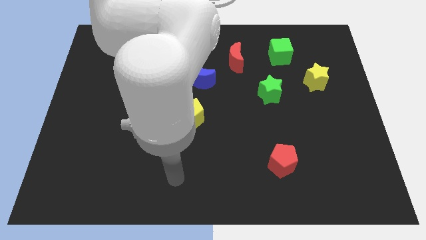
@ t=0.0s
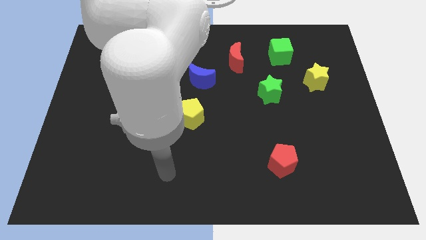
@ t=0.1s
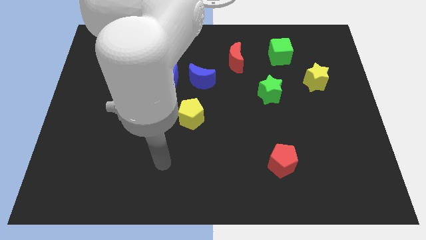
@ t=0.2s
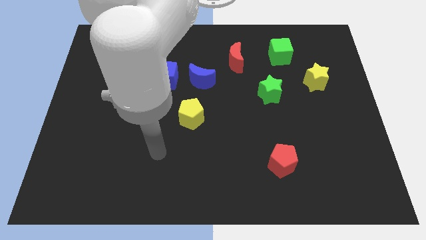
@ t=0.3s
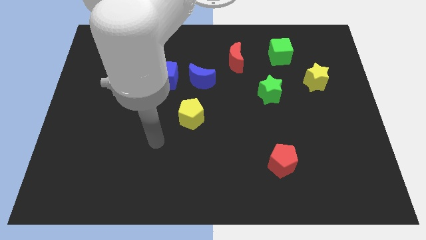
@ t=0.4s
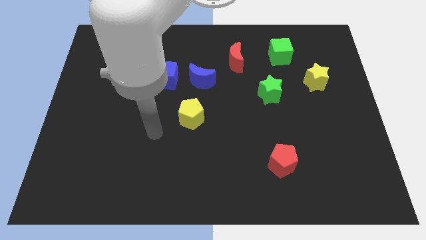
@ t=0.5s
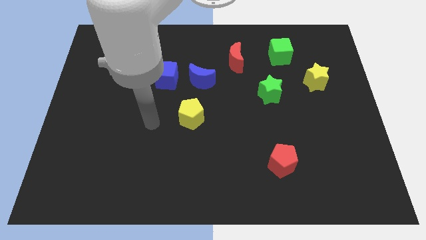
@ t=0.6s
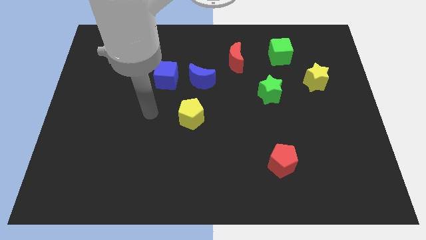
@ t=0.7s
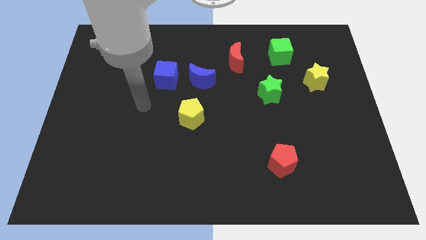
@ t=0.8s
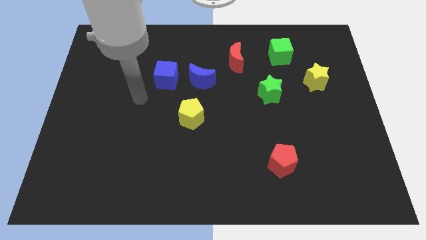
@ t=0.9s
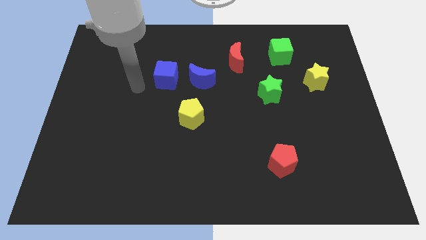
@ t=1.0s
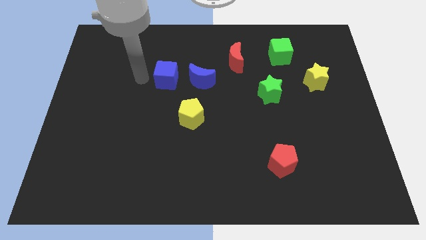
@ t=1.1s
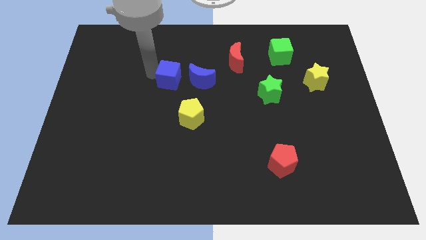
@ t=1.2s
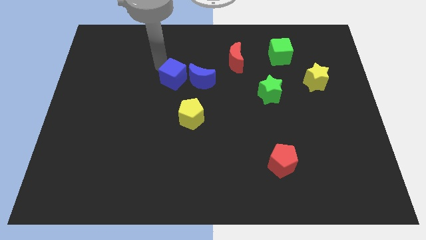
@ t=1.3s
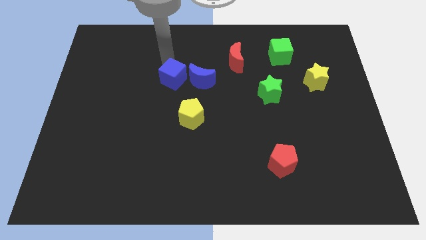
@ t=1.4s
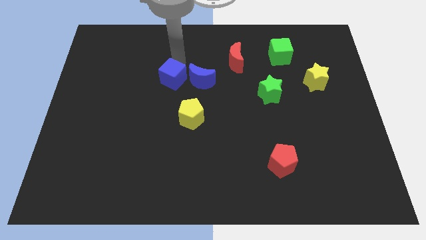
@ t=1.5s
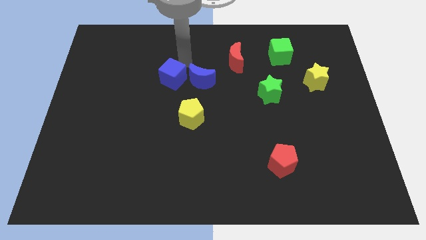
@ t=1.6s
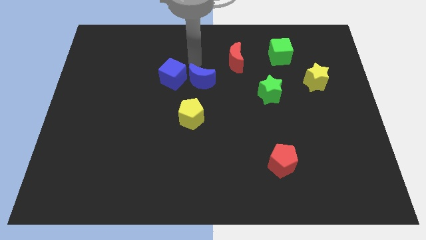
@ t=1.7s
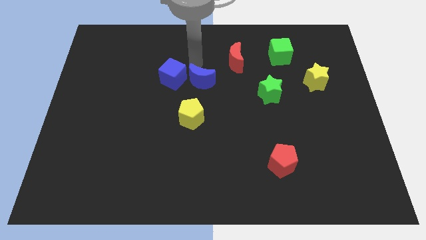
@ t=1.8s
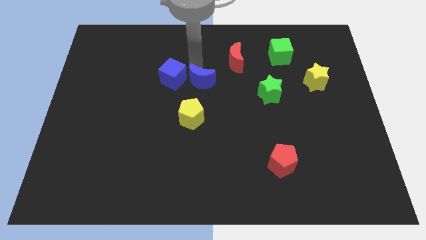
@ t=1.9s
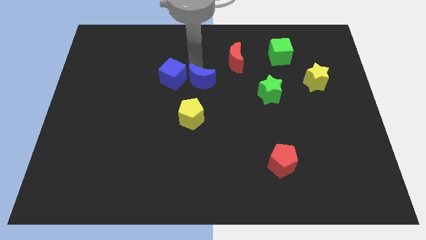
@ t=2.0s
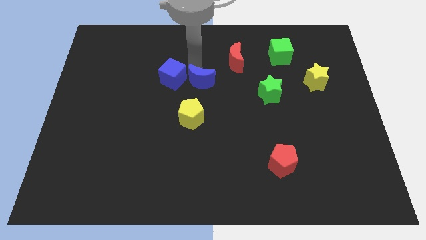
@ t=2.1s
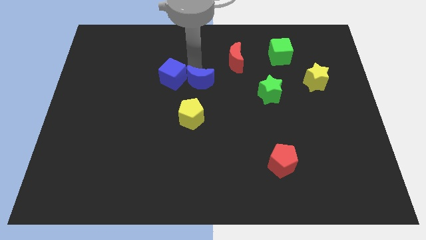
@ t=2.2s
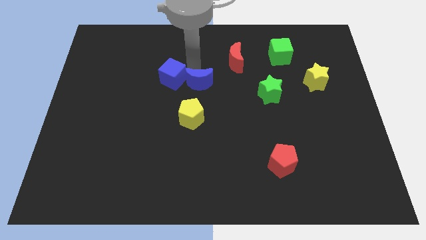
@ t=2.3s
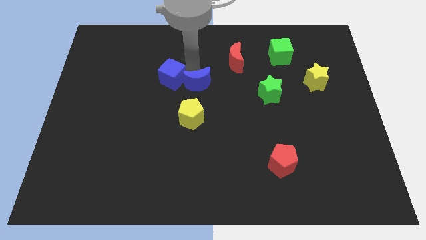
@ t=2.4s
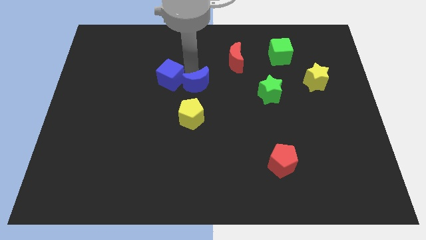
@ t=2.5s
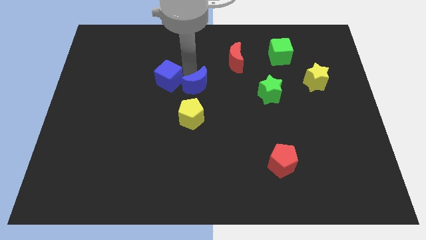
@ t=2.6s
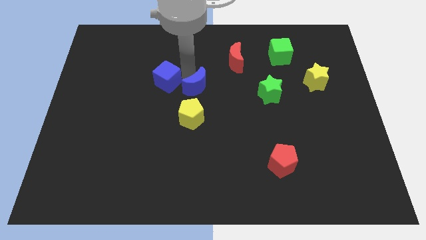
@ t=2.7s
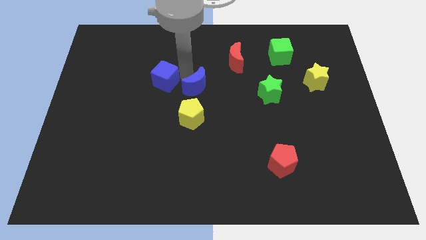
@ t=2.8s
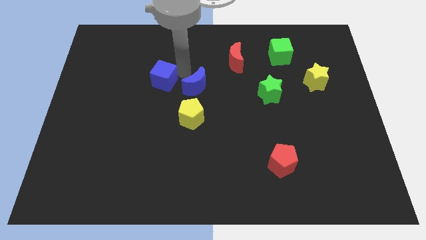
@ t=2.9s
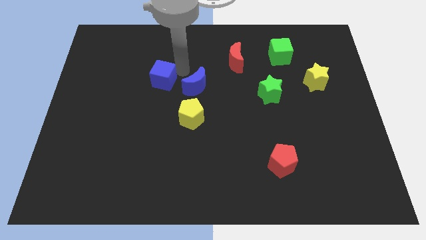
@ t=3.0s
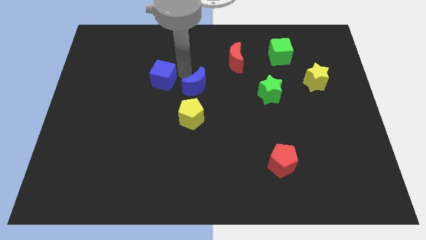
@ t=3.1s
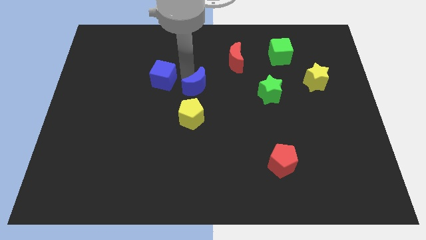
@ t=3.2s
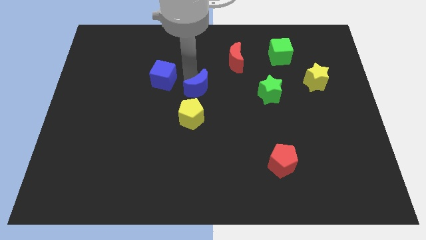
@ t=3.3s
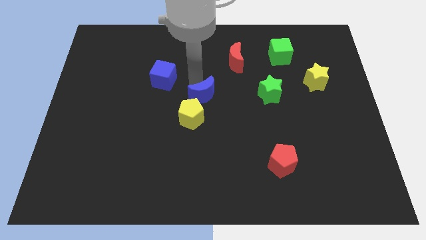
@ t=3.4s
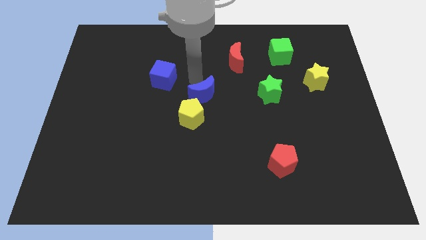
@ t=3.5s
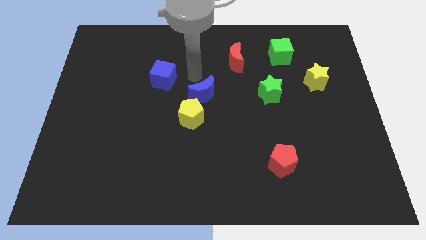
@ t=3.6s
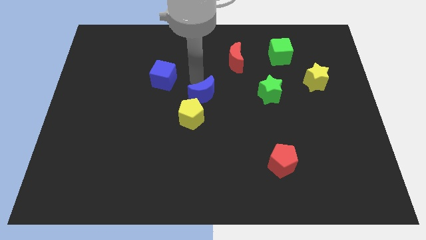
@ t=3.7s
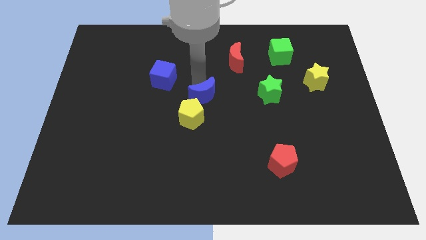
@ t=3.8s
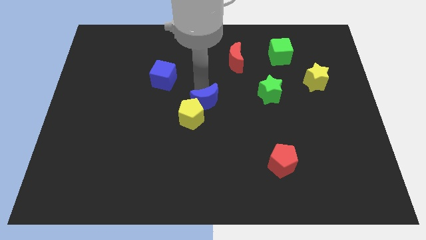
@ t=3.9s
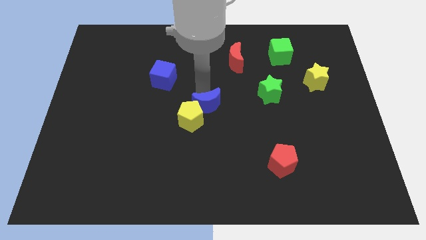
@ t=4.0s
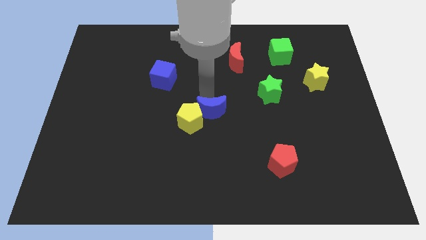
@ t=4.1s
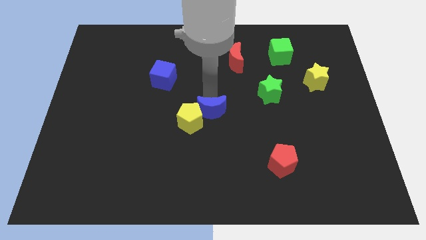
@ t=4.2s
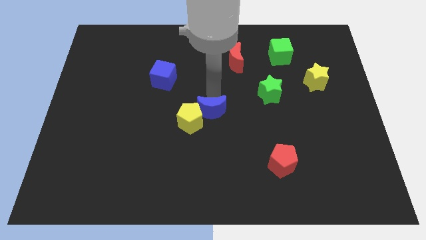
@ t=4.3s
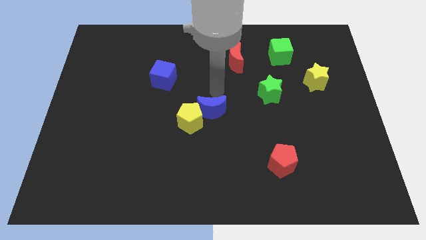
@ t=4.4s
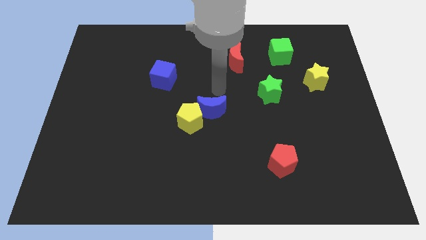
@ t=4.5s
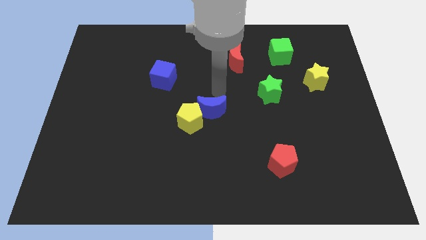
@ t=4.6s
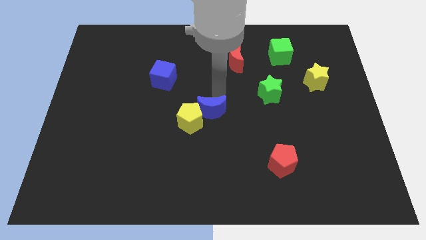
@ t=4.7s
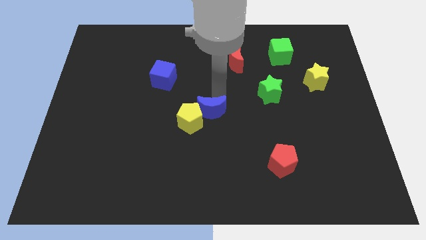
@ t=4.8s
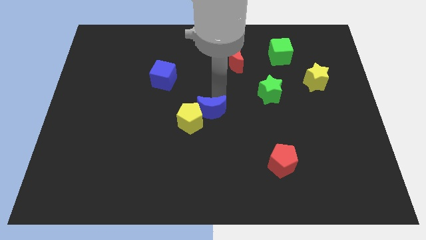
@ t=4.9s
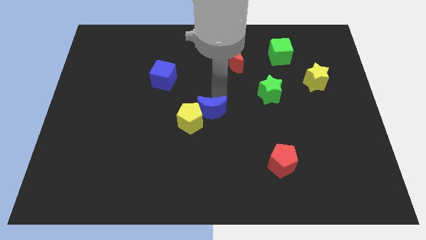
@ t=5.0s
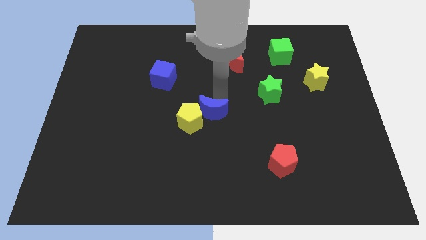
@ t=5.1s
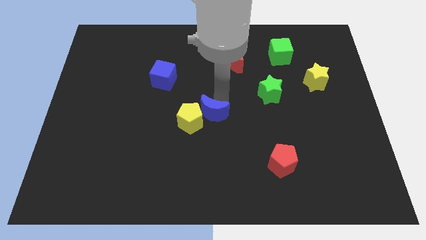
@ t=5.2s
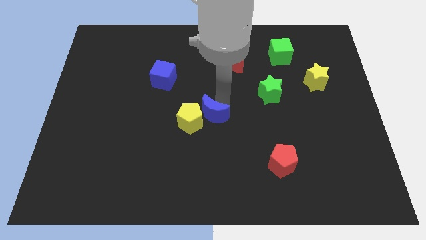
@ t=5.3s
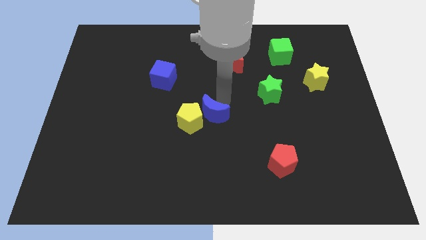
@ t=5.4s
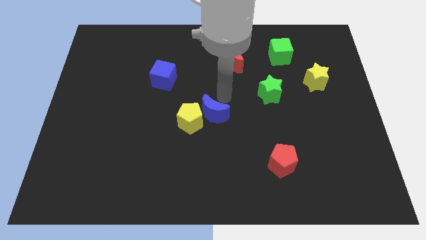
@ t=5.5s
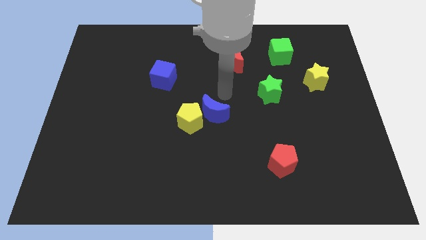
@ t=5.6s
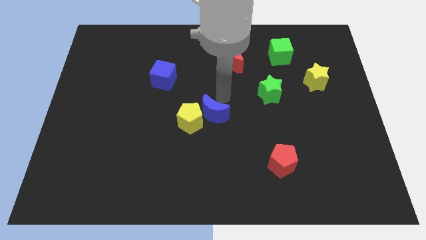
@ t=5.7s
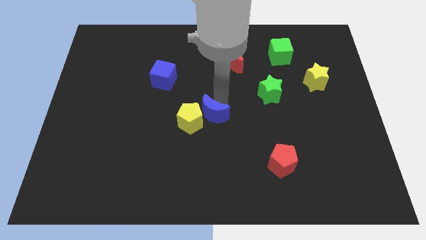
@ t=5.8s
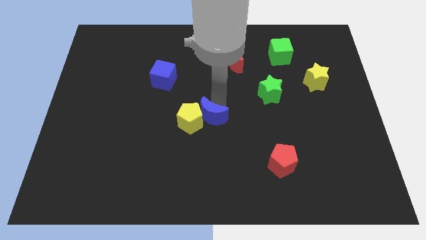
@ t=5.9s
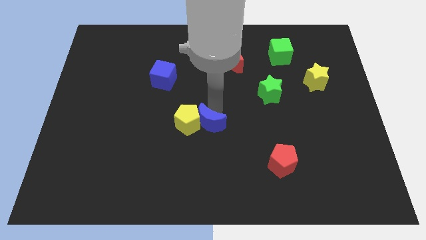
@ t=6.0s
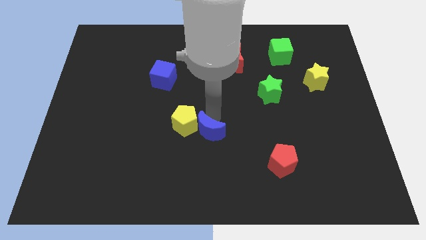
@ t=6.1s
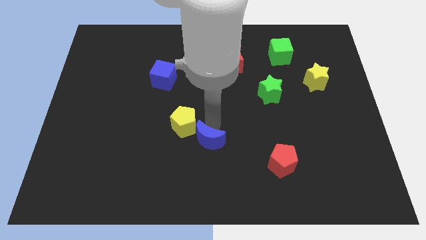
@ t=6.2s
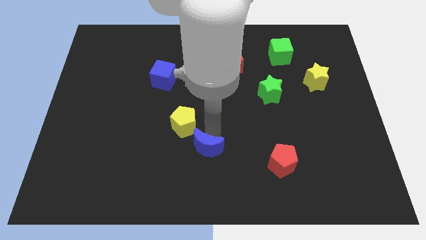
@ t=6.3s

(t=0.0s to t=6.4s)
move the blue moon to the bottom of the yellow pentagon

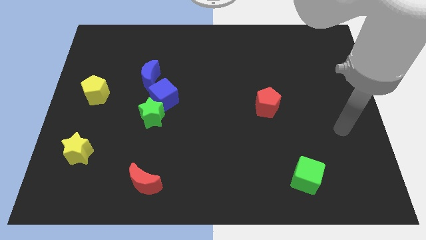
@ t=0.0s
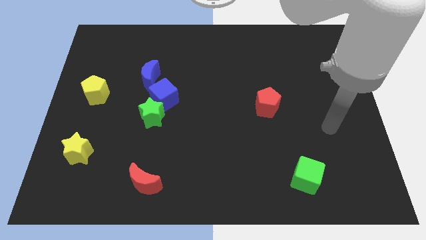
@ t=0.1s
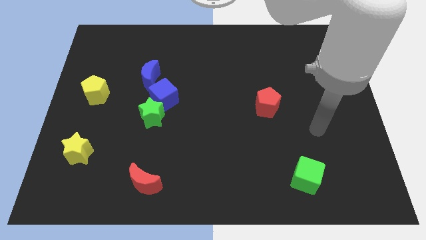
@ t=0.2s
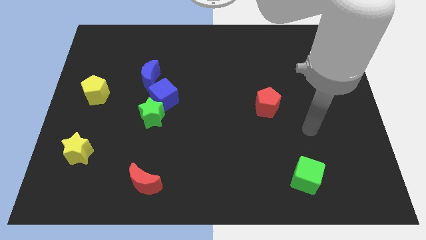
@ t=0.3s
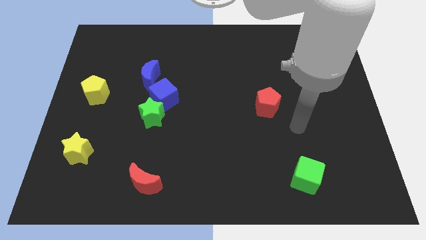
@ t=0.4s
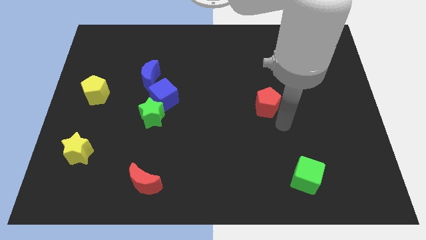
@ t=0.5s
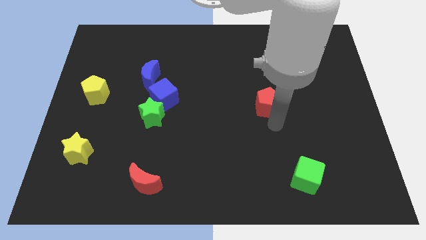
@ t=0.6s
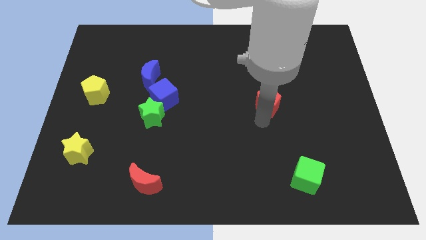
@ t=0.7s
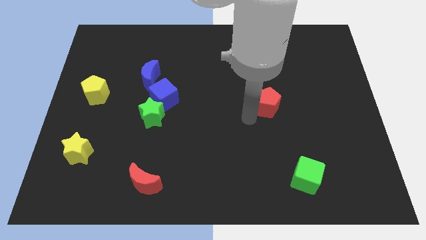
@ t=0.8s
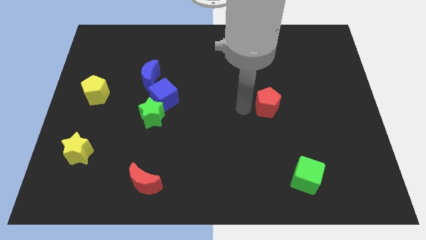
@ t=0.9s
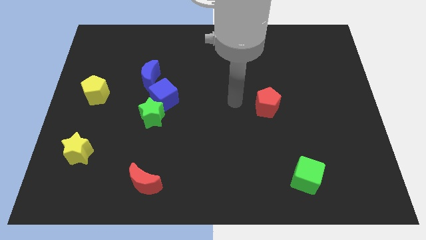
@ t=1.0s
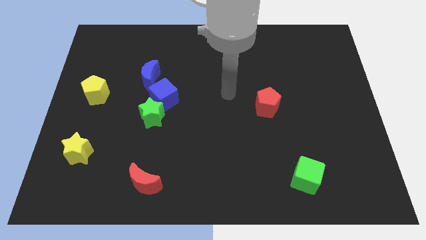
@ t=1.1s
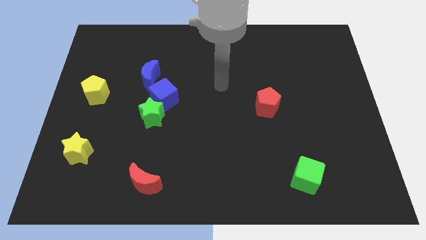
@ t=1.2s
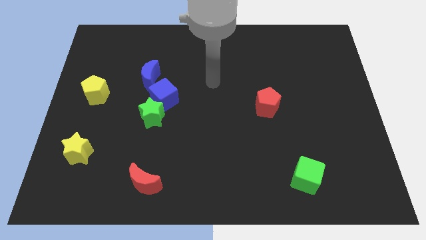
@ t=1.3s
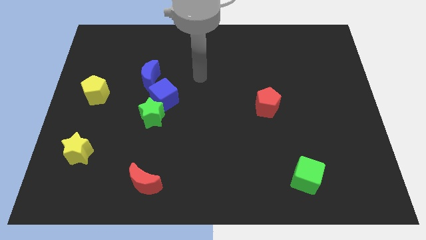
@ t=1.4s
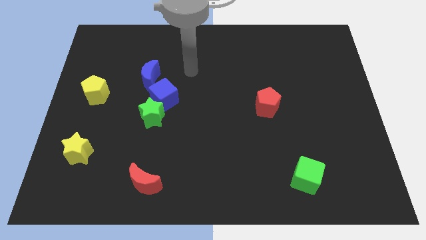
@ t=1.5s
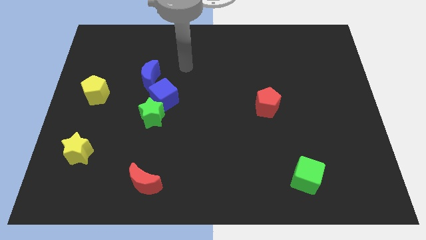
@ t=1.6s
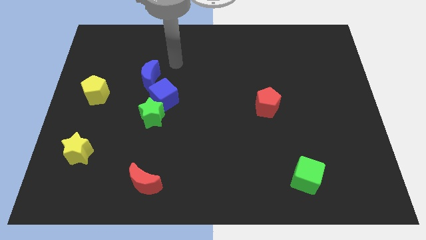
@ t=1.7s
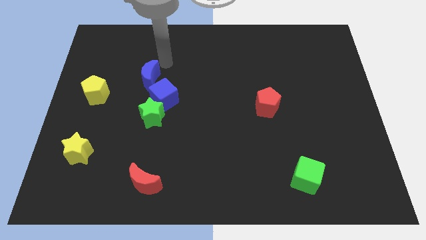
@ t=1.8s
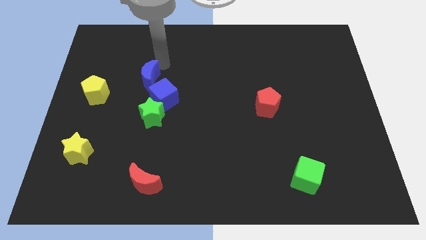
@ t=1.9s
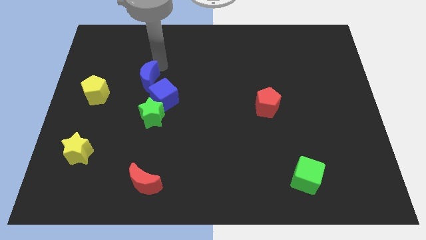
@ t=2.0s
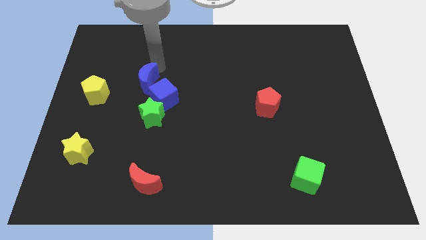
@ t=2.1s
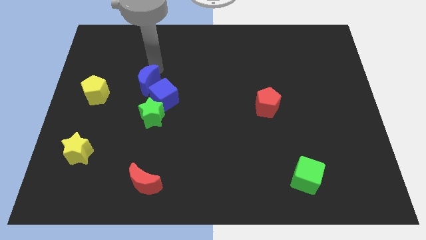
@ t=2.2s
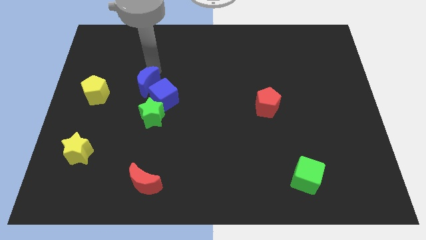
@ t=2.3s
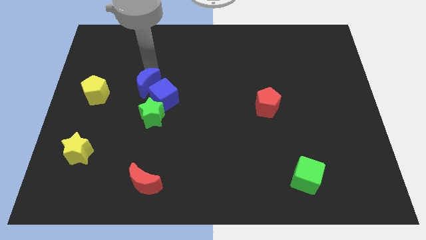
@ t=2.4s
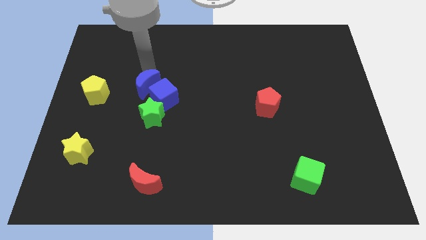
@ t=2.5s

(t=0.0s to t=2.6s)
push the blue moon diagonally up and to the left of the green star
